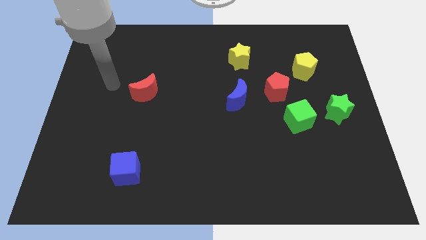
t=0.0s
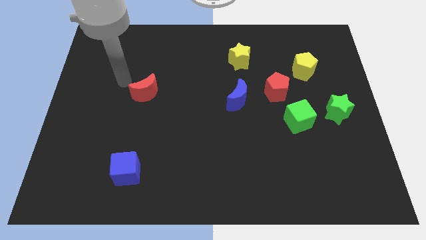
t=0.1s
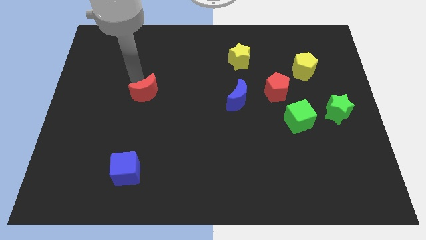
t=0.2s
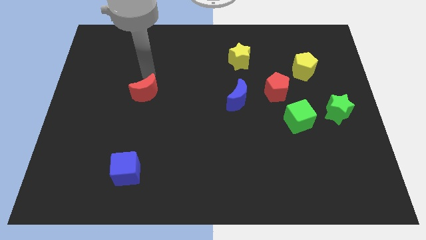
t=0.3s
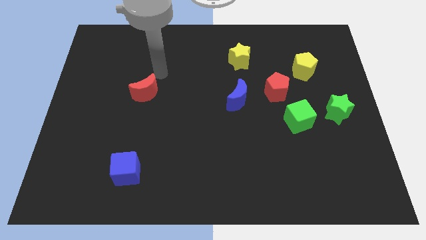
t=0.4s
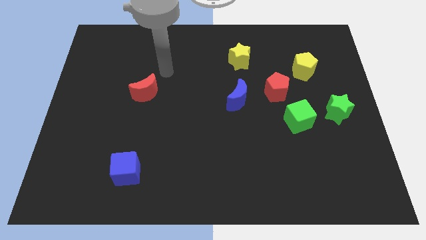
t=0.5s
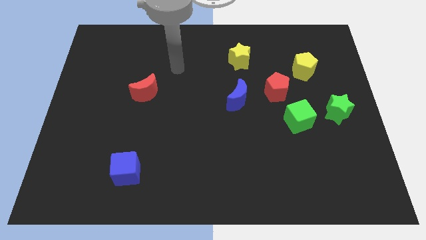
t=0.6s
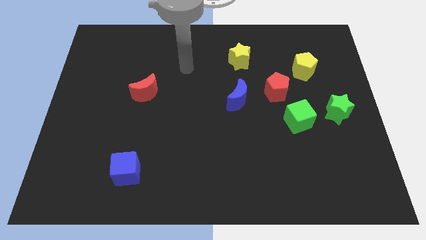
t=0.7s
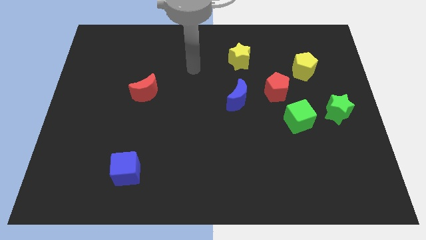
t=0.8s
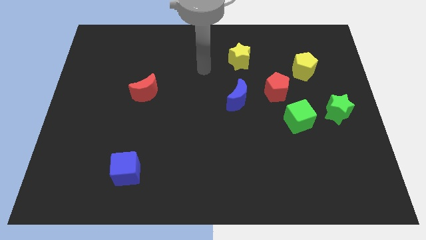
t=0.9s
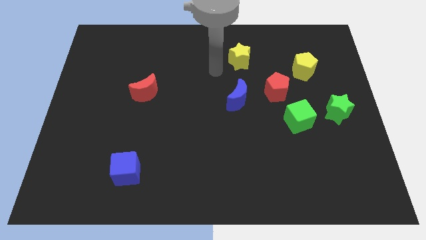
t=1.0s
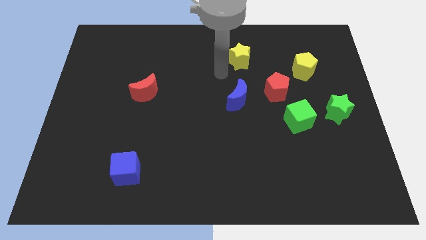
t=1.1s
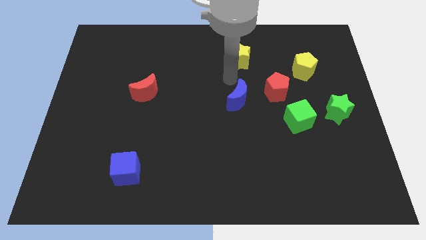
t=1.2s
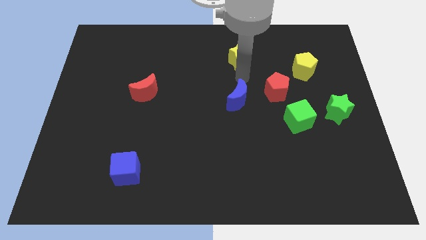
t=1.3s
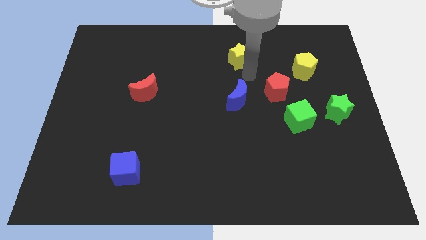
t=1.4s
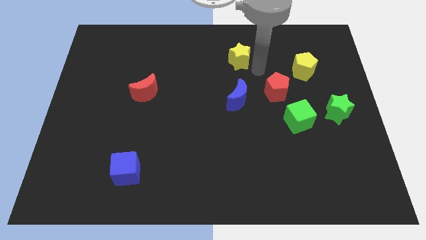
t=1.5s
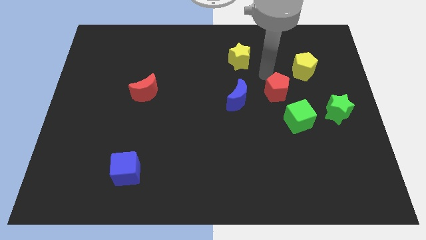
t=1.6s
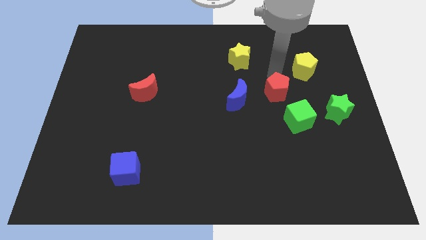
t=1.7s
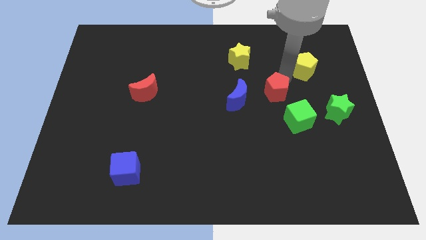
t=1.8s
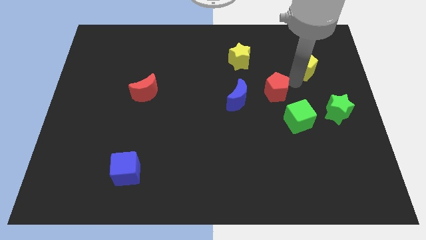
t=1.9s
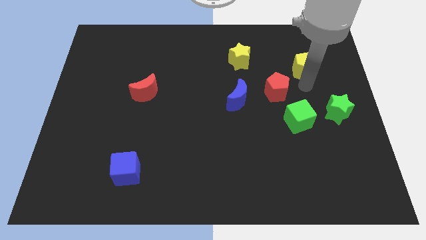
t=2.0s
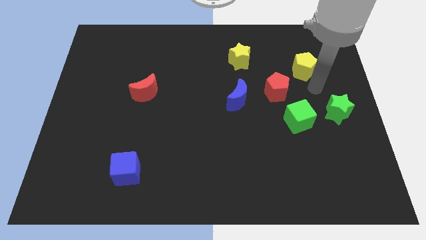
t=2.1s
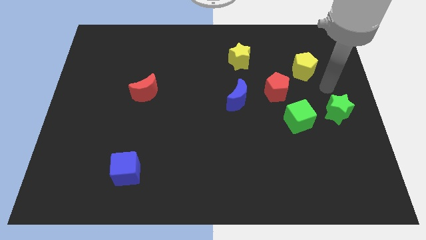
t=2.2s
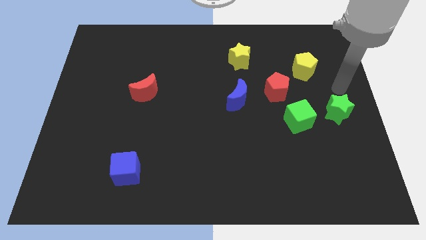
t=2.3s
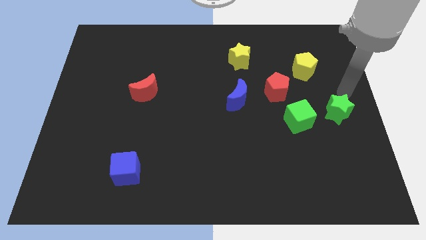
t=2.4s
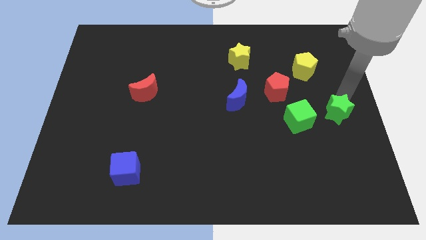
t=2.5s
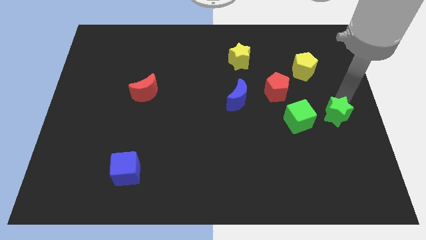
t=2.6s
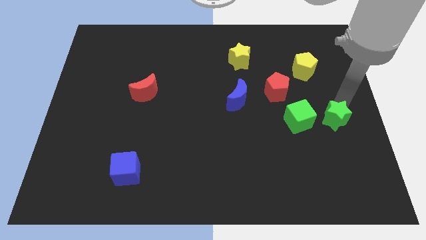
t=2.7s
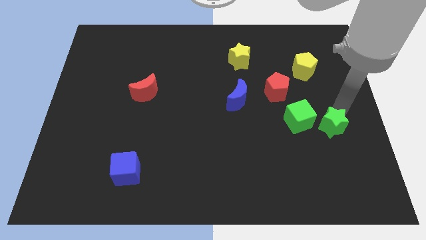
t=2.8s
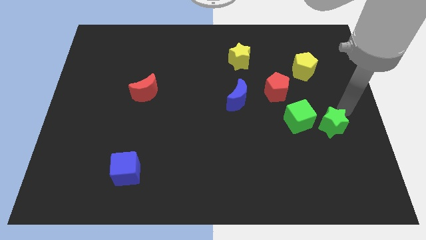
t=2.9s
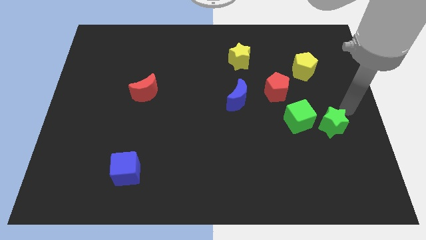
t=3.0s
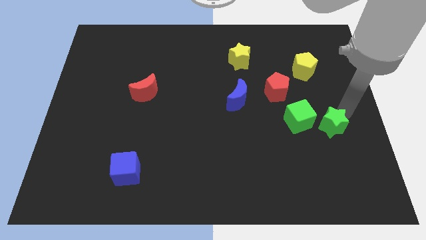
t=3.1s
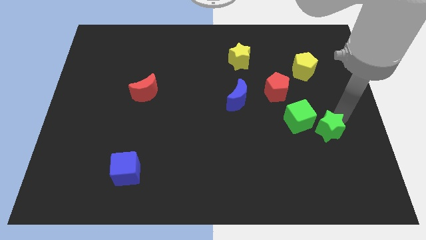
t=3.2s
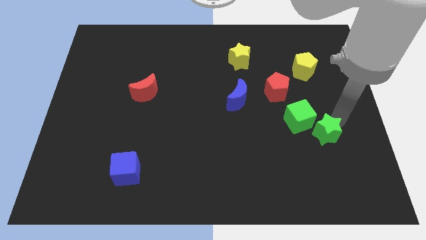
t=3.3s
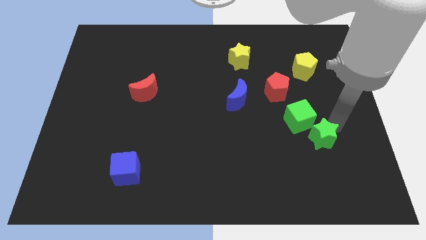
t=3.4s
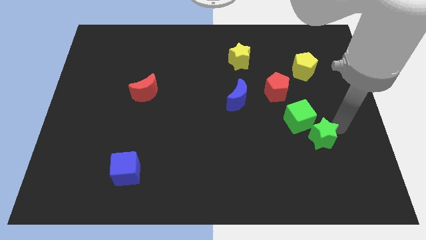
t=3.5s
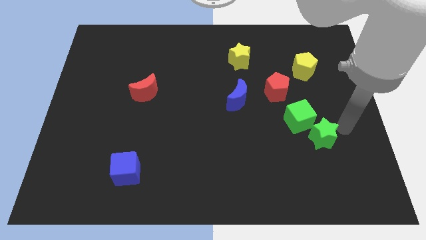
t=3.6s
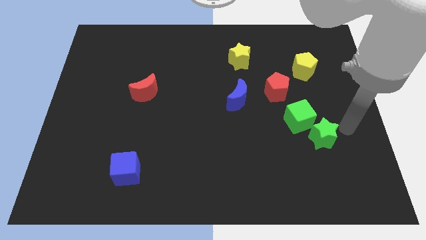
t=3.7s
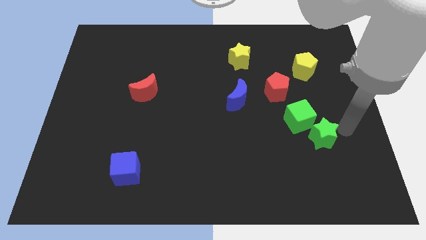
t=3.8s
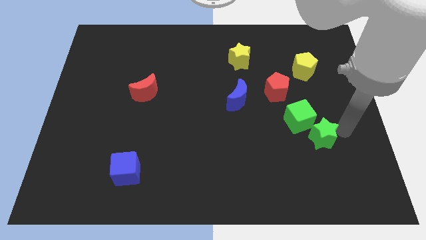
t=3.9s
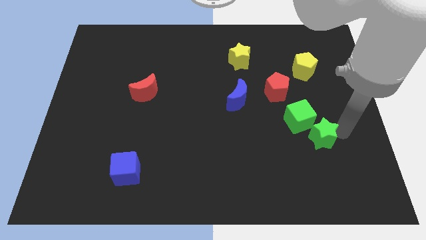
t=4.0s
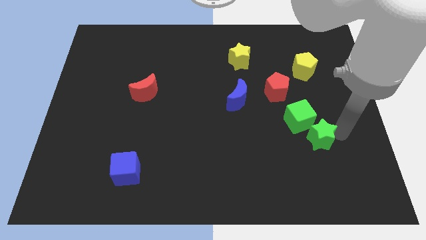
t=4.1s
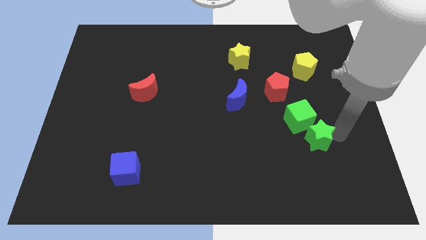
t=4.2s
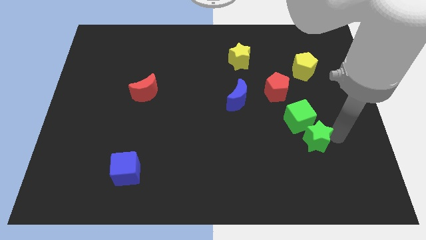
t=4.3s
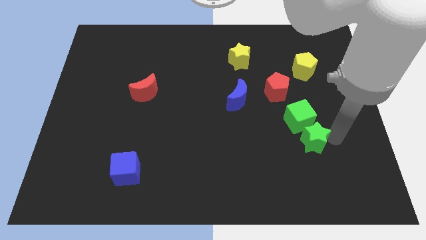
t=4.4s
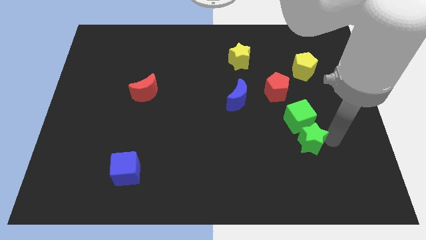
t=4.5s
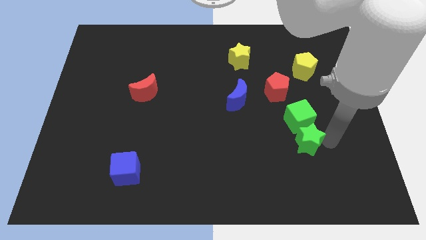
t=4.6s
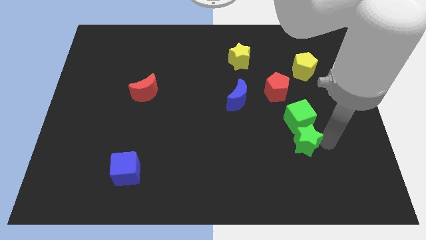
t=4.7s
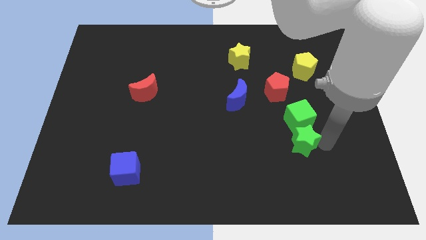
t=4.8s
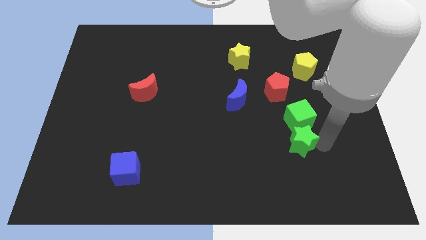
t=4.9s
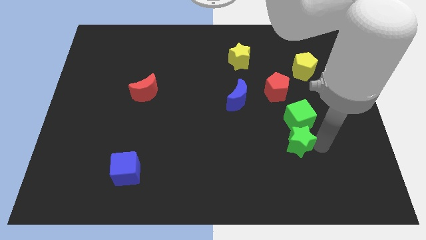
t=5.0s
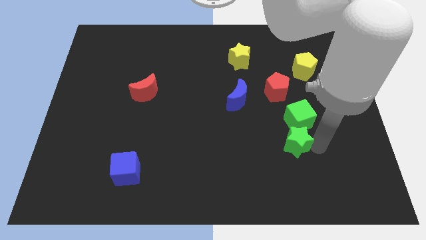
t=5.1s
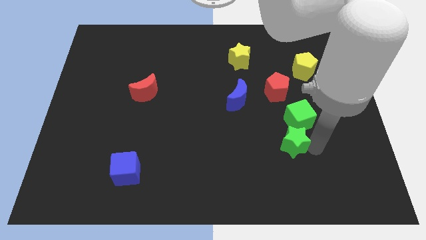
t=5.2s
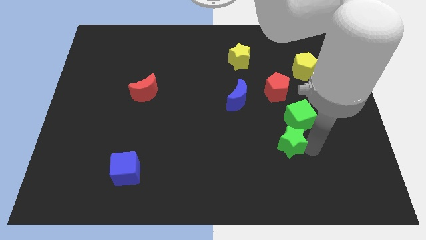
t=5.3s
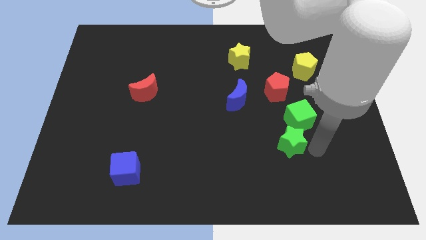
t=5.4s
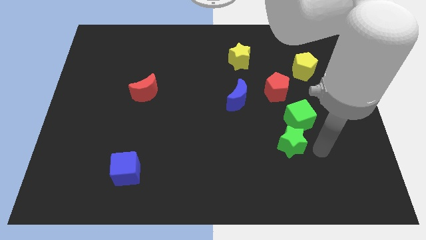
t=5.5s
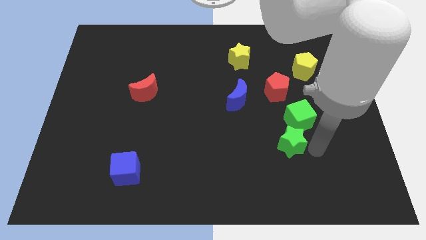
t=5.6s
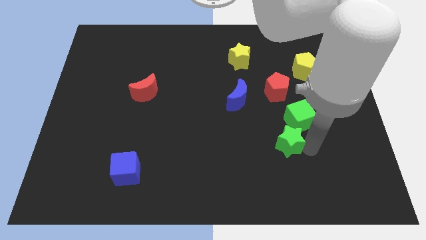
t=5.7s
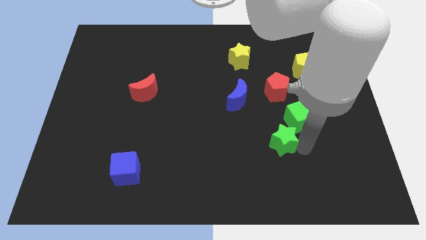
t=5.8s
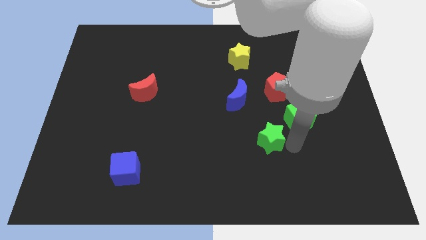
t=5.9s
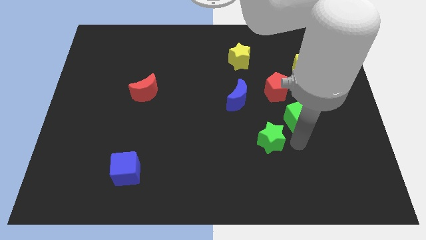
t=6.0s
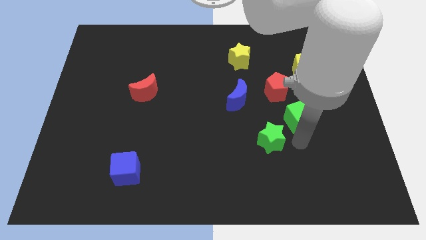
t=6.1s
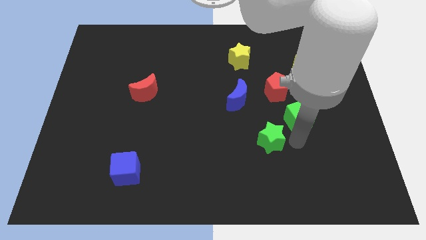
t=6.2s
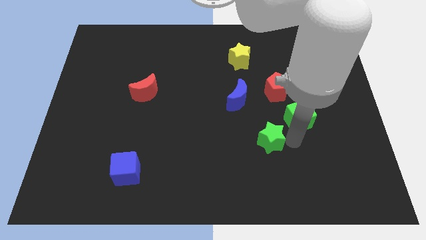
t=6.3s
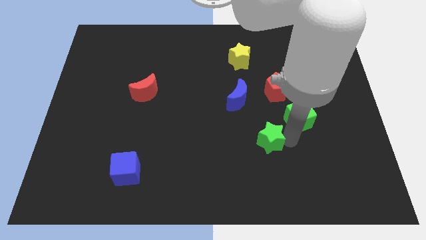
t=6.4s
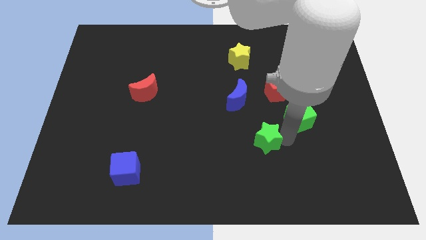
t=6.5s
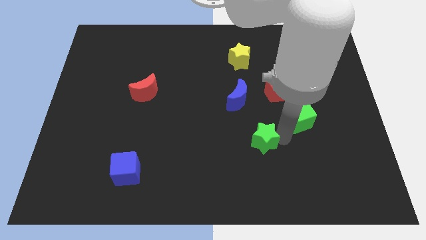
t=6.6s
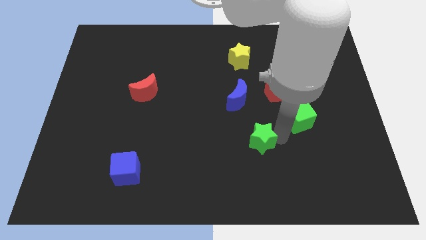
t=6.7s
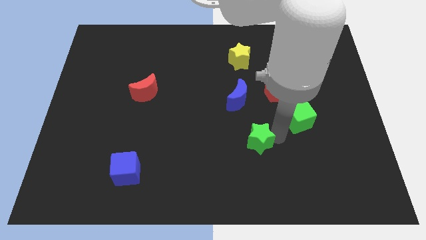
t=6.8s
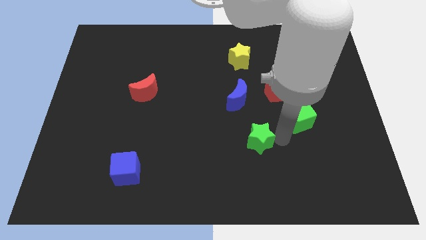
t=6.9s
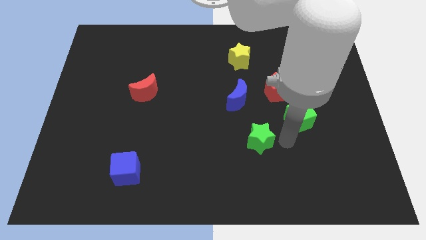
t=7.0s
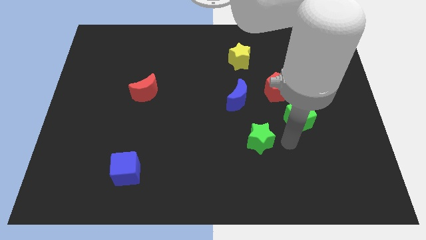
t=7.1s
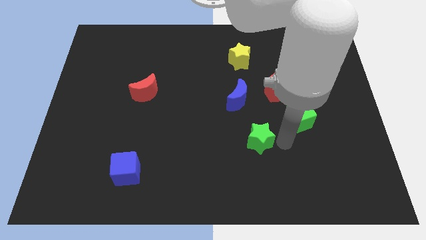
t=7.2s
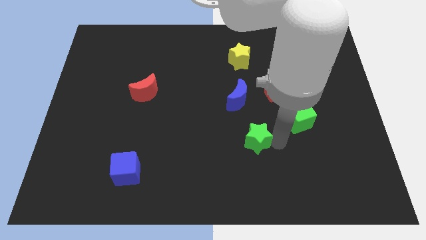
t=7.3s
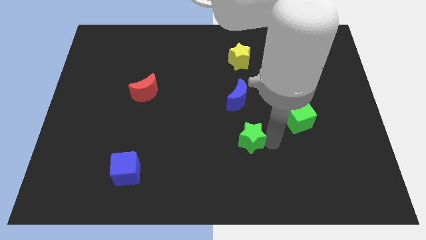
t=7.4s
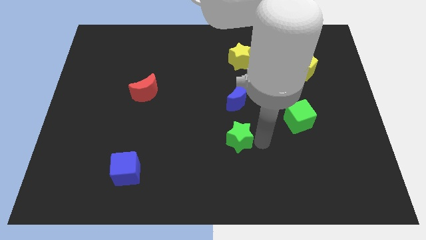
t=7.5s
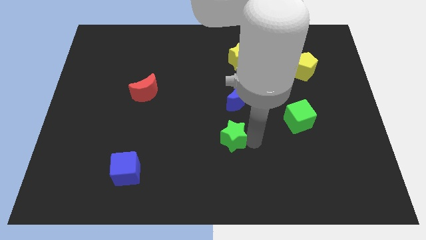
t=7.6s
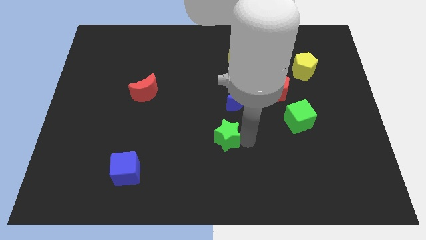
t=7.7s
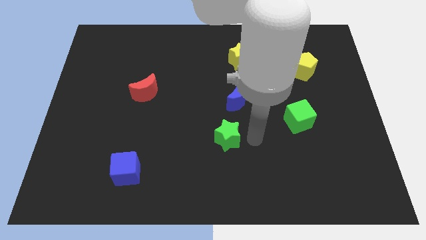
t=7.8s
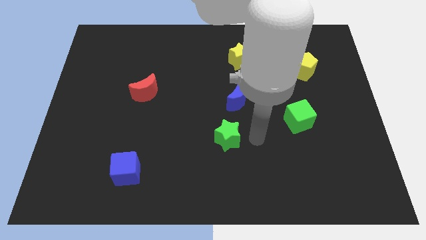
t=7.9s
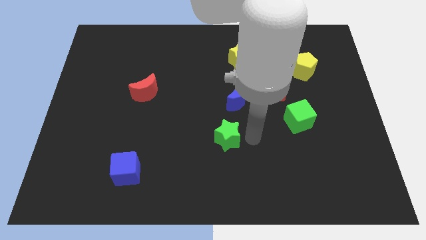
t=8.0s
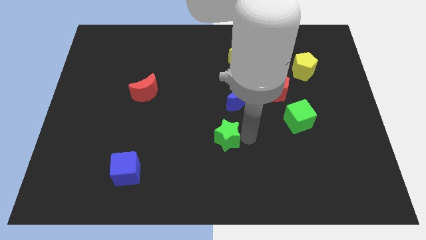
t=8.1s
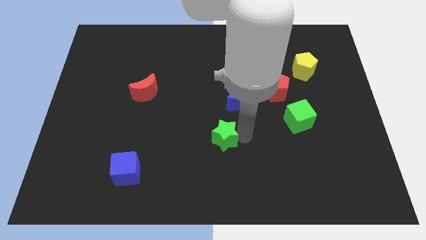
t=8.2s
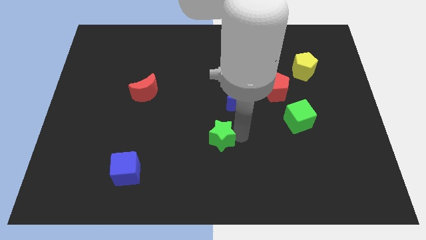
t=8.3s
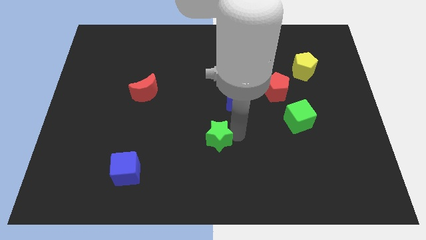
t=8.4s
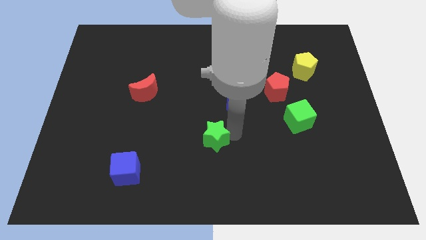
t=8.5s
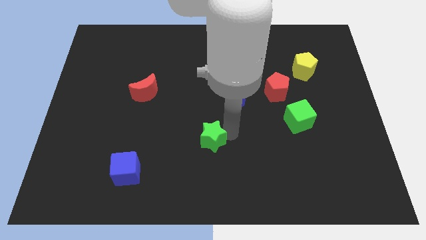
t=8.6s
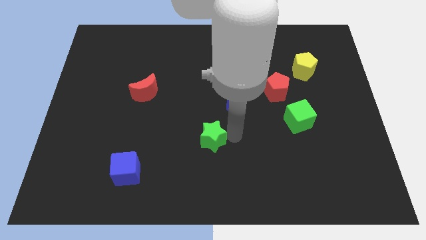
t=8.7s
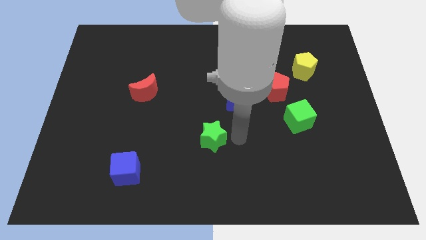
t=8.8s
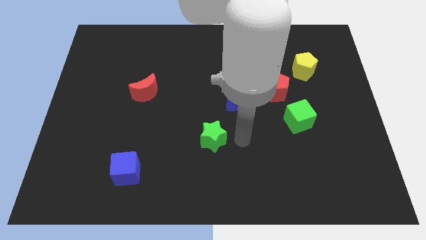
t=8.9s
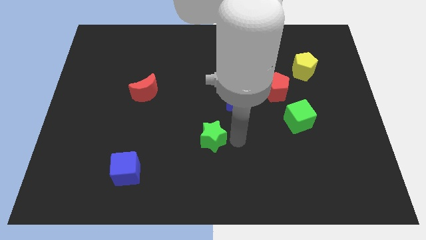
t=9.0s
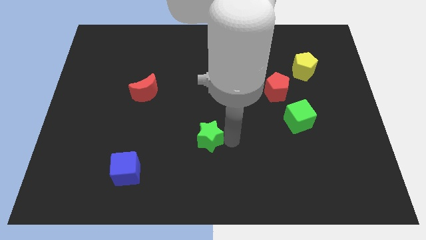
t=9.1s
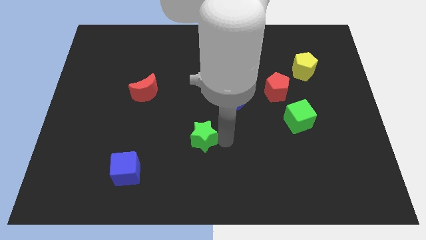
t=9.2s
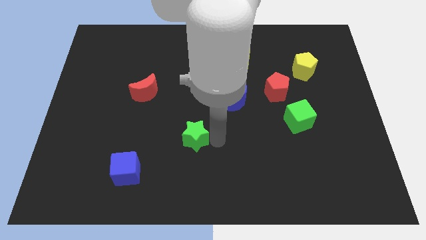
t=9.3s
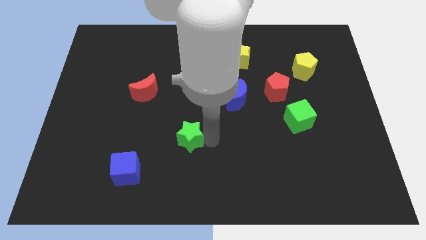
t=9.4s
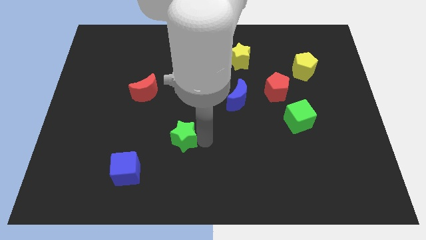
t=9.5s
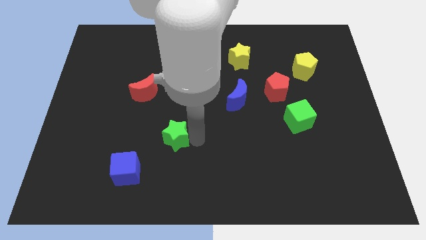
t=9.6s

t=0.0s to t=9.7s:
put the green star to the top right of the blue cube
